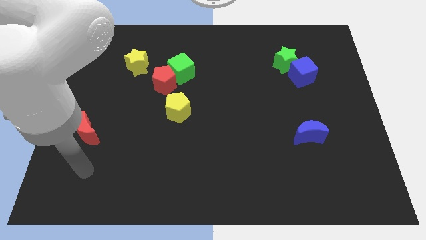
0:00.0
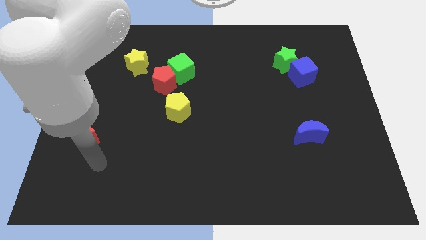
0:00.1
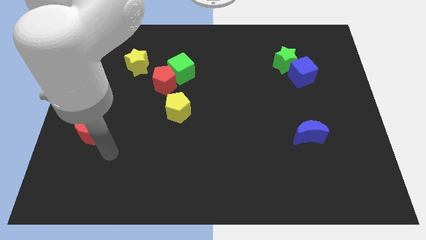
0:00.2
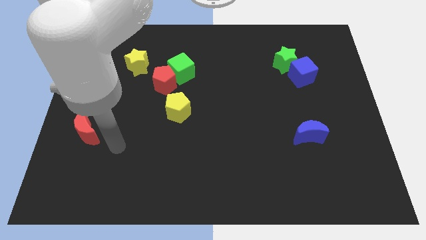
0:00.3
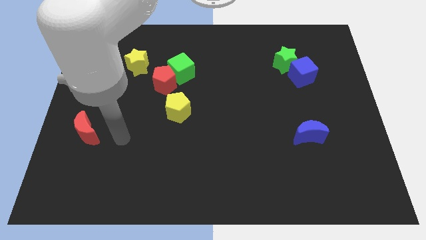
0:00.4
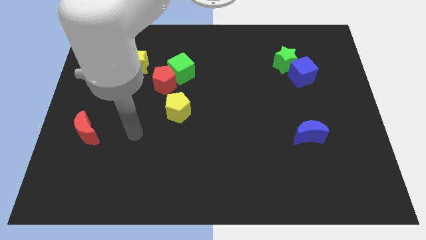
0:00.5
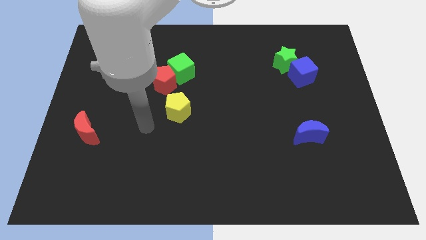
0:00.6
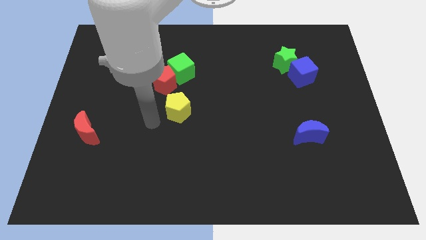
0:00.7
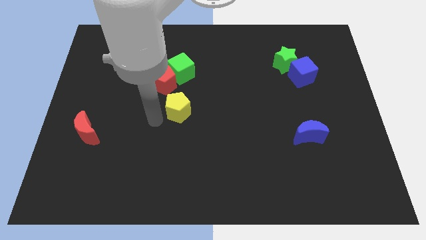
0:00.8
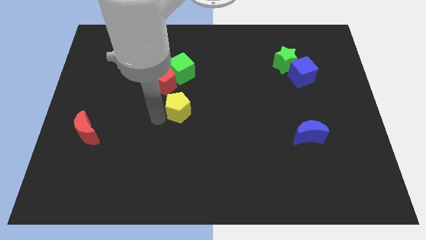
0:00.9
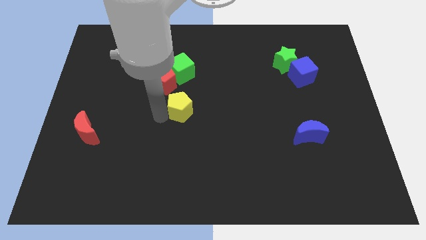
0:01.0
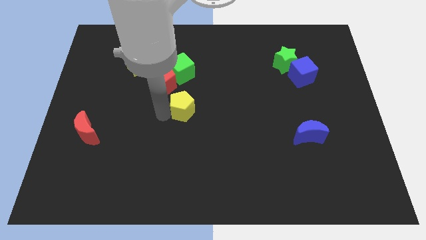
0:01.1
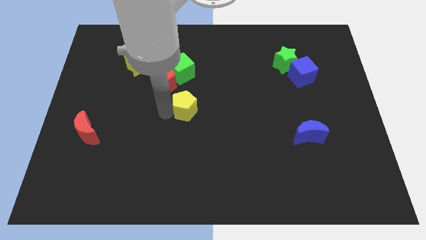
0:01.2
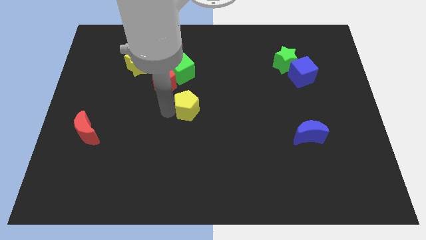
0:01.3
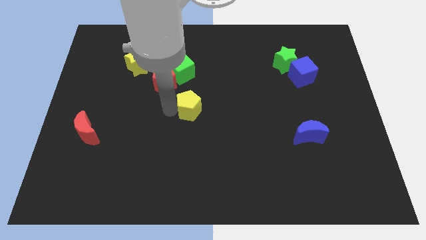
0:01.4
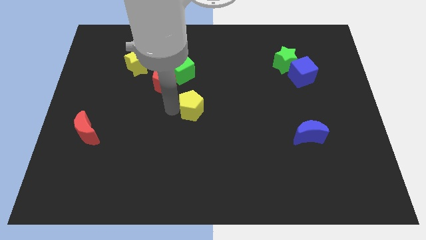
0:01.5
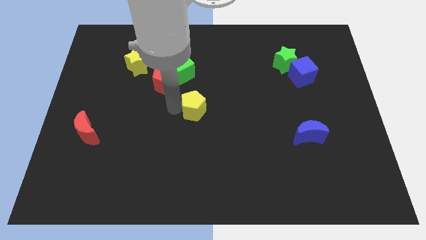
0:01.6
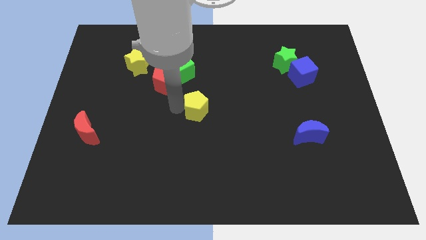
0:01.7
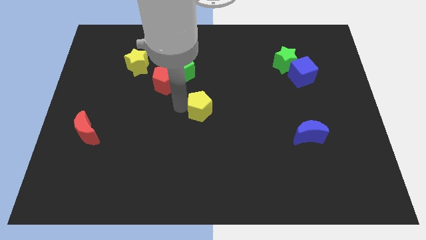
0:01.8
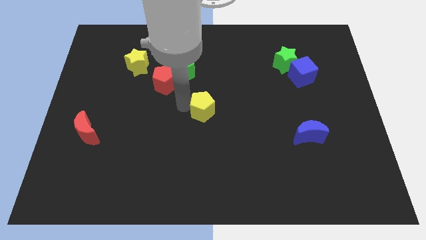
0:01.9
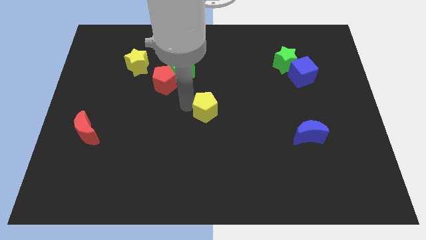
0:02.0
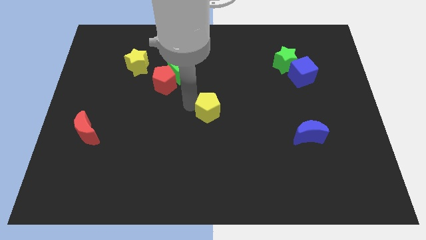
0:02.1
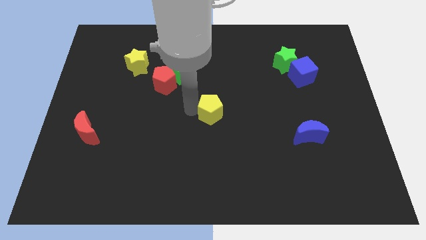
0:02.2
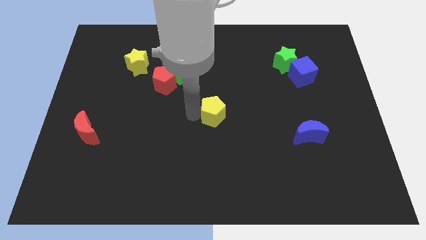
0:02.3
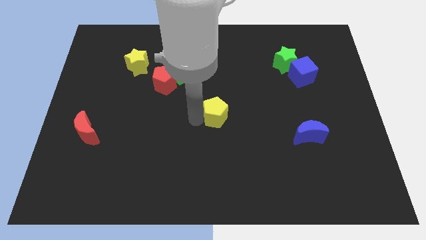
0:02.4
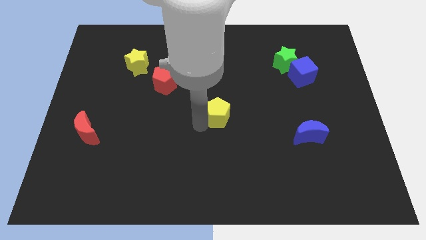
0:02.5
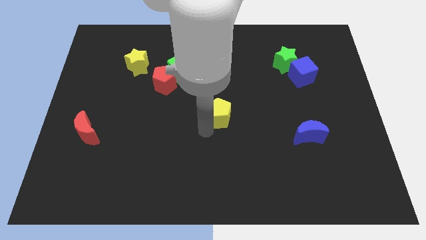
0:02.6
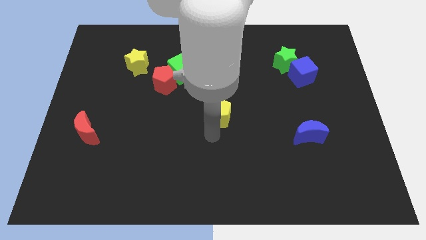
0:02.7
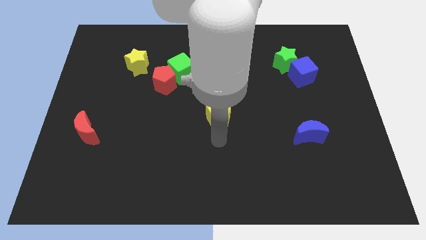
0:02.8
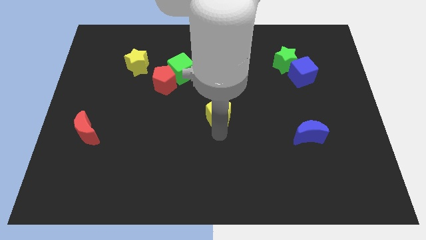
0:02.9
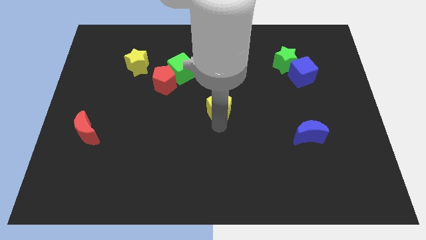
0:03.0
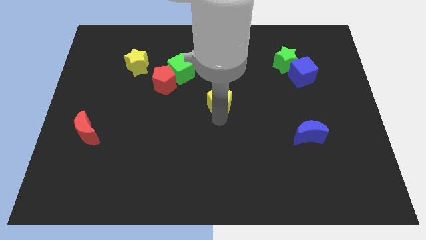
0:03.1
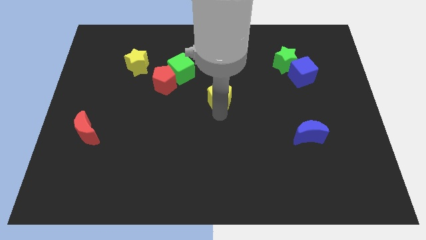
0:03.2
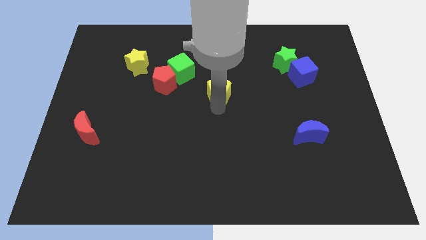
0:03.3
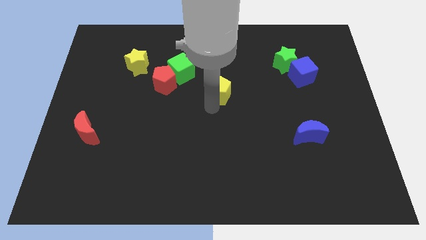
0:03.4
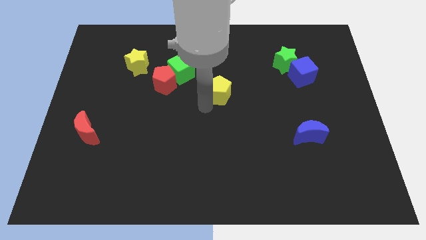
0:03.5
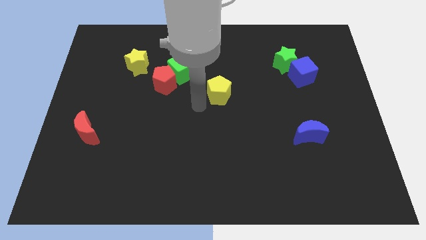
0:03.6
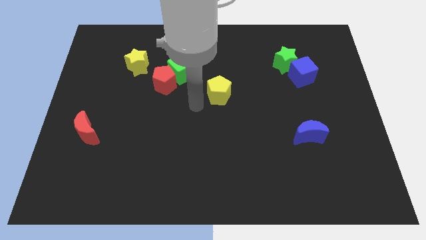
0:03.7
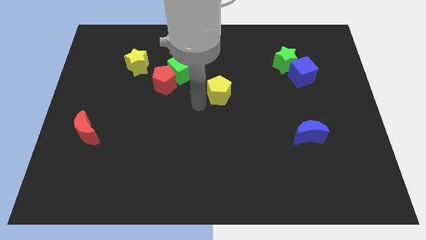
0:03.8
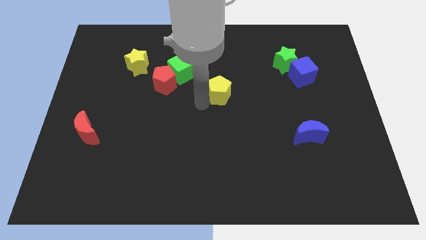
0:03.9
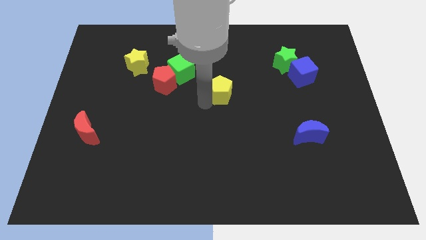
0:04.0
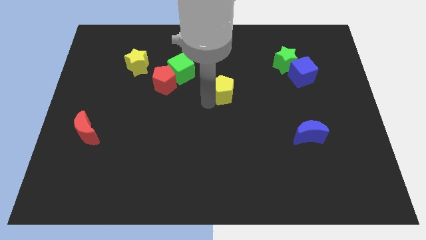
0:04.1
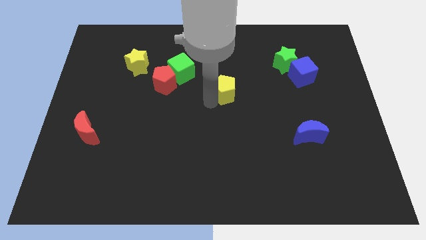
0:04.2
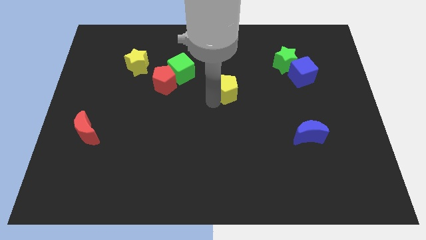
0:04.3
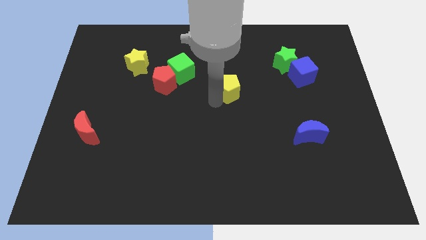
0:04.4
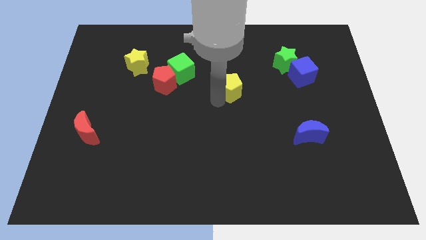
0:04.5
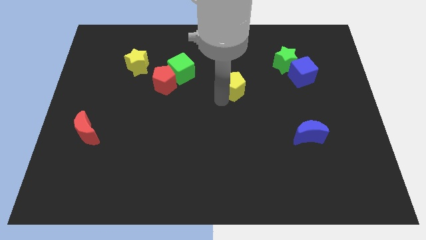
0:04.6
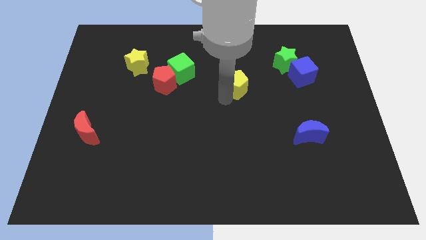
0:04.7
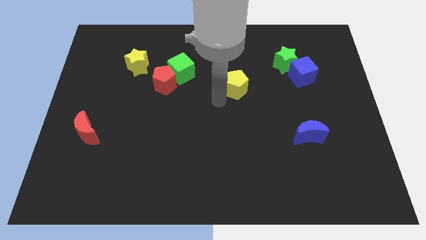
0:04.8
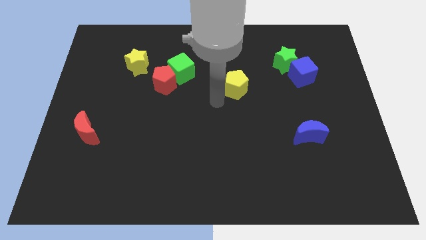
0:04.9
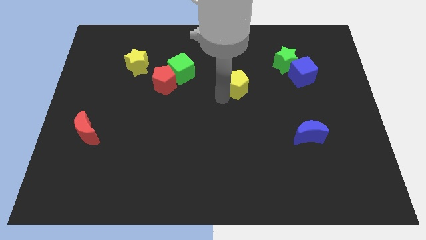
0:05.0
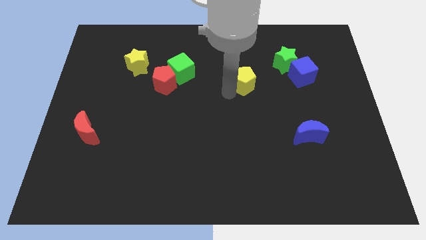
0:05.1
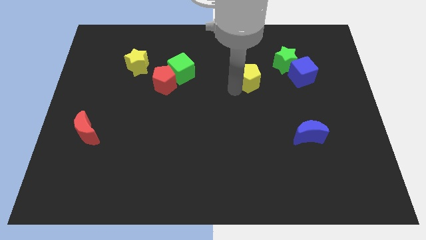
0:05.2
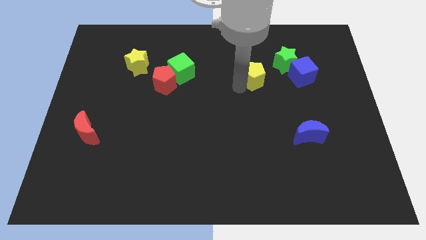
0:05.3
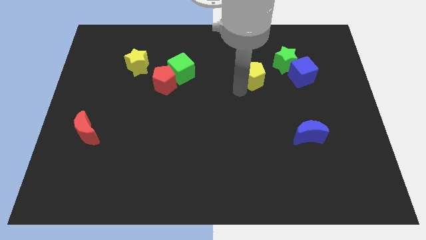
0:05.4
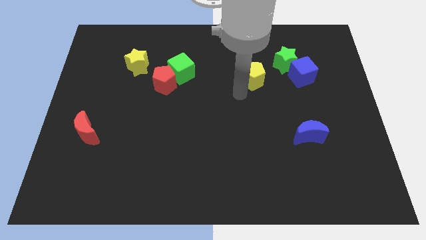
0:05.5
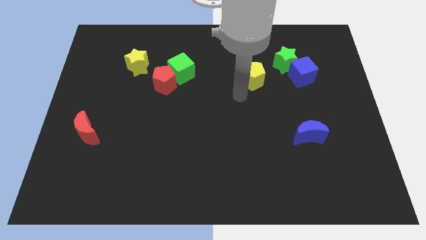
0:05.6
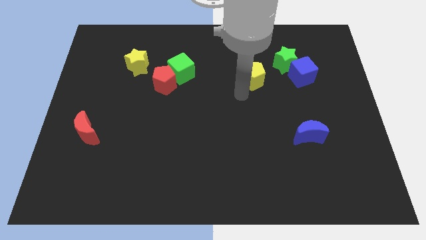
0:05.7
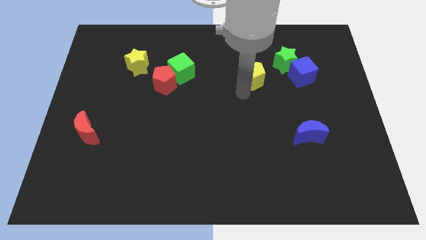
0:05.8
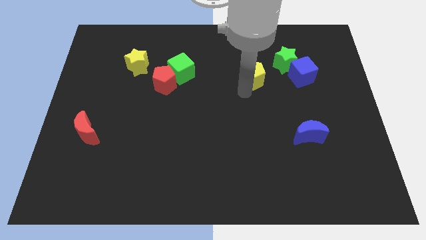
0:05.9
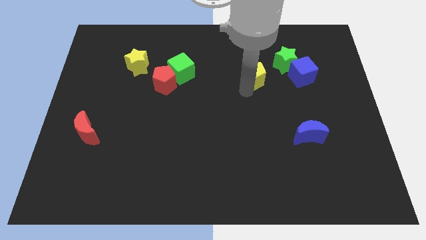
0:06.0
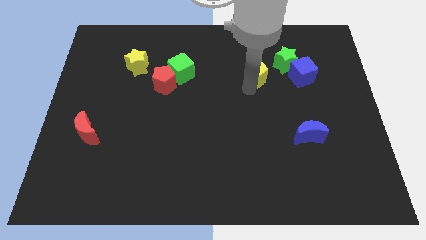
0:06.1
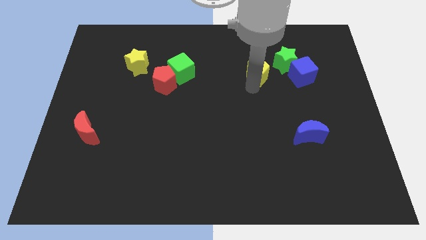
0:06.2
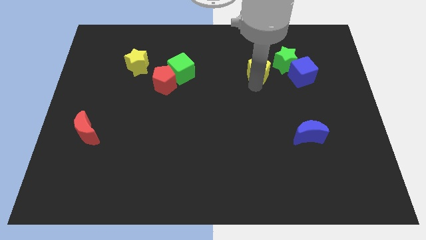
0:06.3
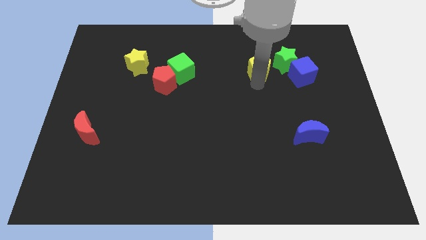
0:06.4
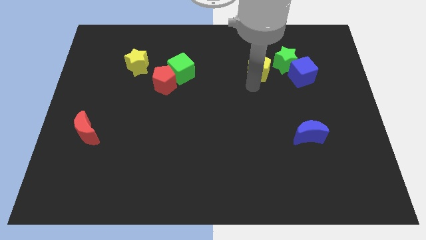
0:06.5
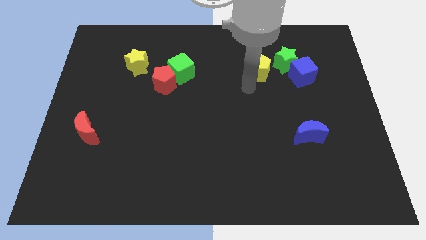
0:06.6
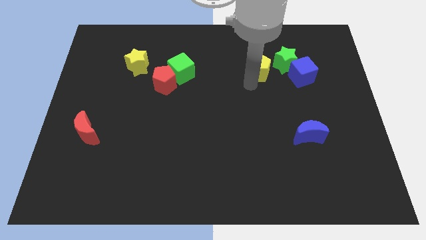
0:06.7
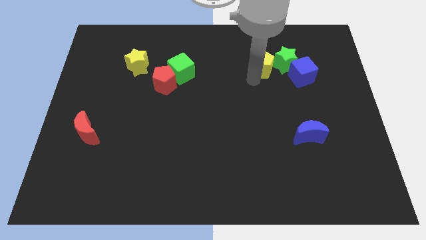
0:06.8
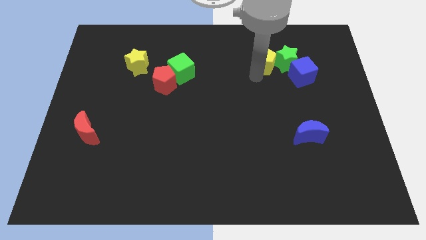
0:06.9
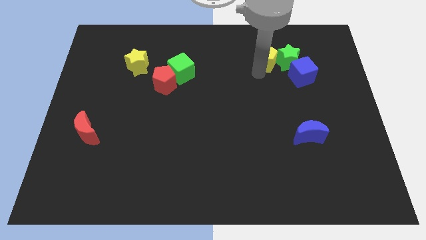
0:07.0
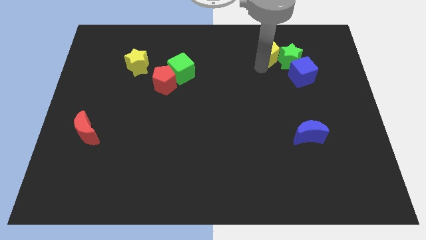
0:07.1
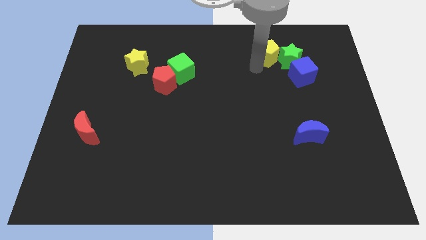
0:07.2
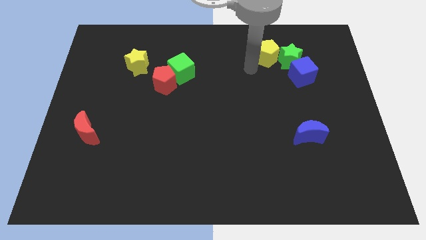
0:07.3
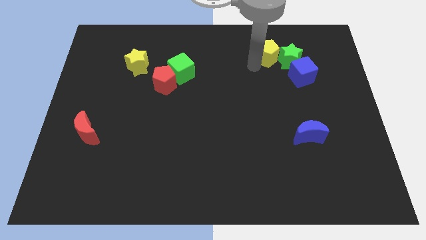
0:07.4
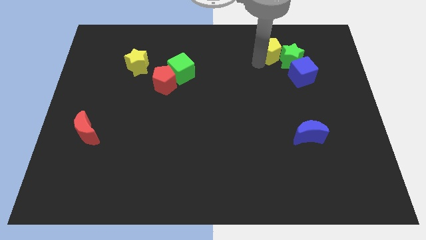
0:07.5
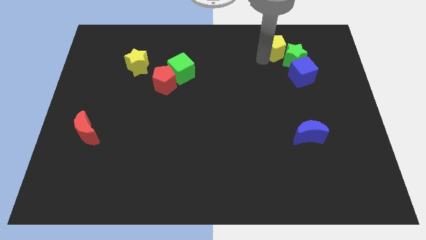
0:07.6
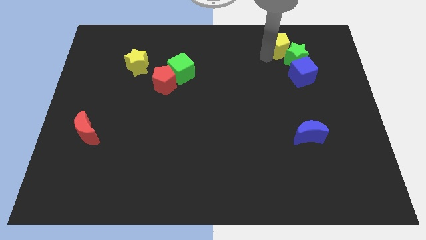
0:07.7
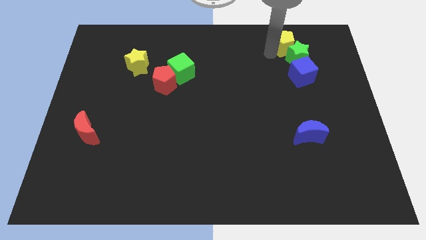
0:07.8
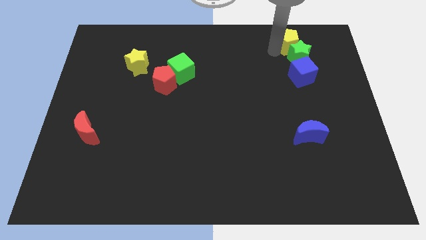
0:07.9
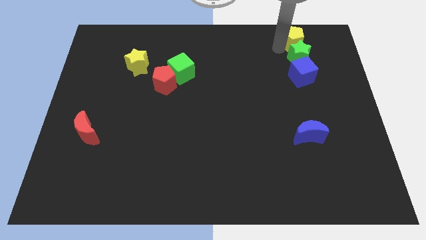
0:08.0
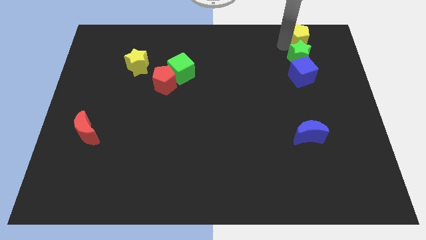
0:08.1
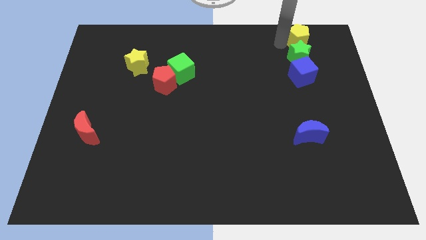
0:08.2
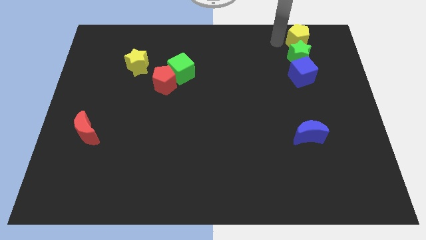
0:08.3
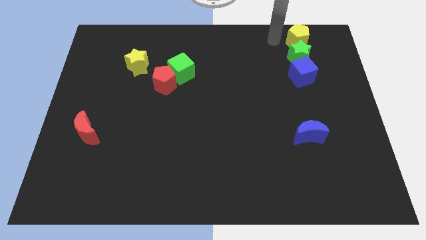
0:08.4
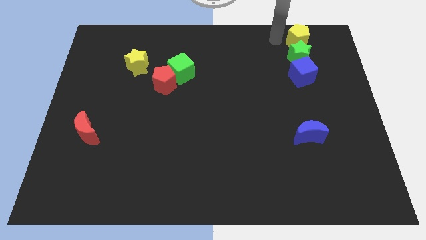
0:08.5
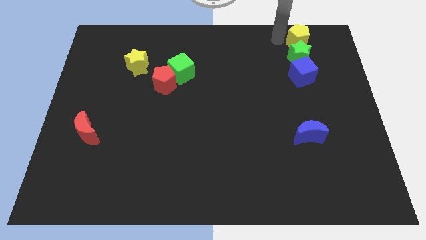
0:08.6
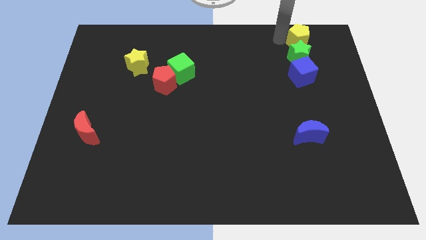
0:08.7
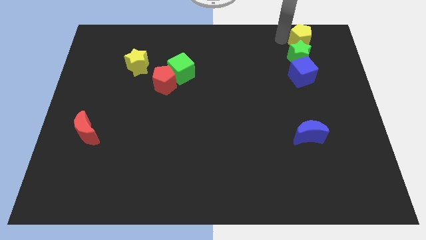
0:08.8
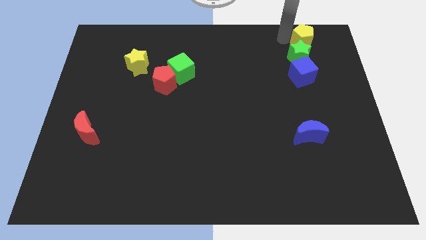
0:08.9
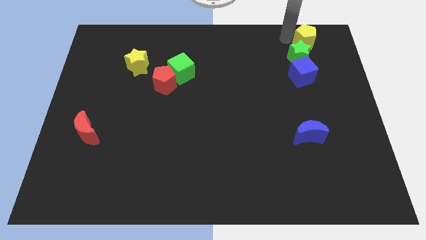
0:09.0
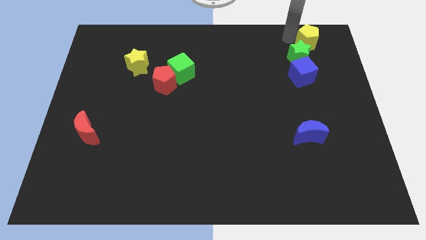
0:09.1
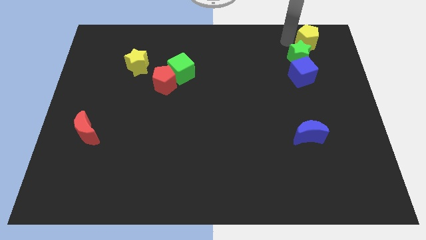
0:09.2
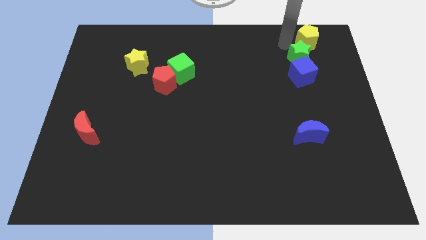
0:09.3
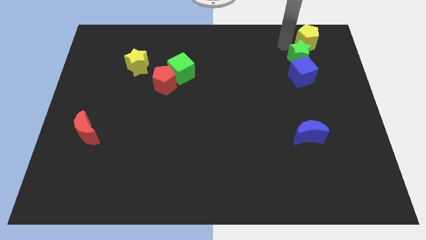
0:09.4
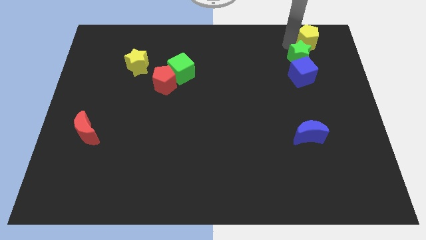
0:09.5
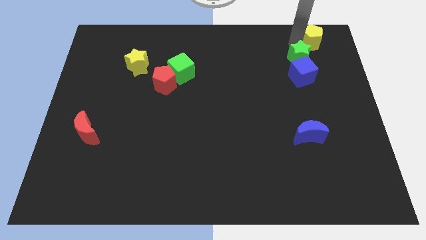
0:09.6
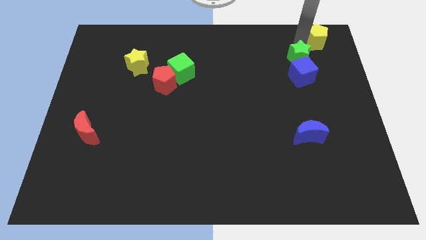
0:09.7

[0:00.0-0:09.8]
push the yellow pentagon to the top right
